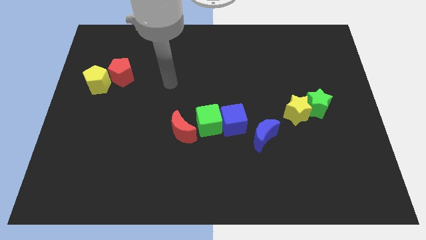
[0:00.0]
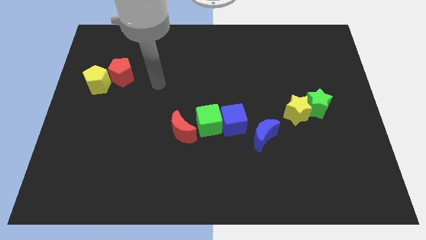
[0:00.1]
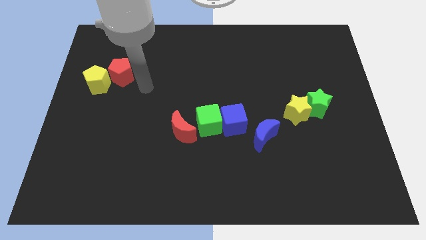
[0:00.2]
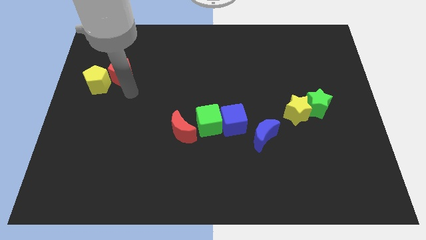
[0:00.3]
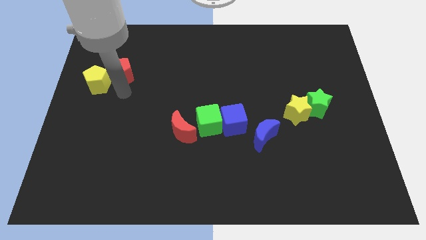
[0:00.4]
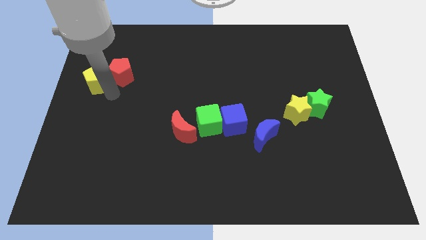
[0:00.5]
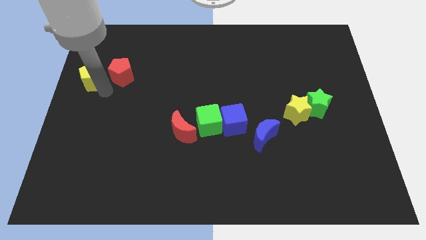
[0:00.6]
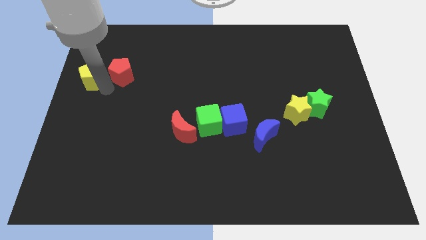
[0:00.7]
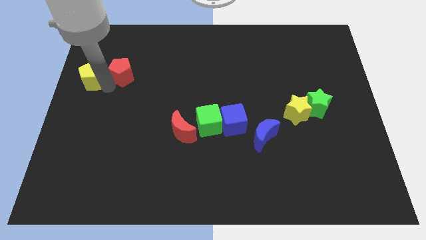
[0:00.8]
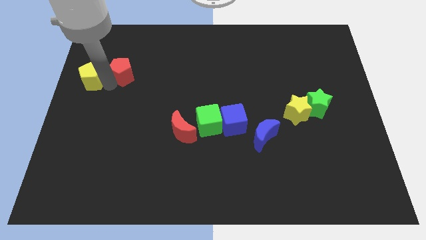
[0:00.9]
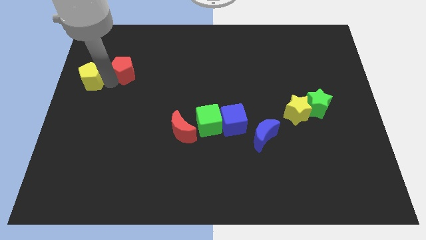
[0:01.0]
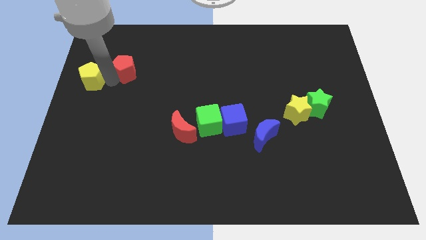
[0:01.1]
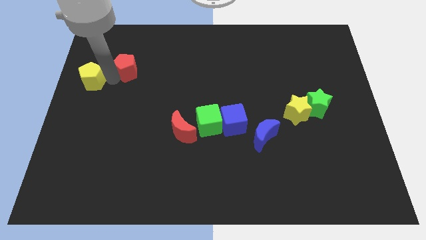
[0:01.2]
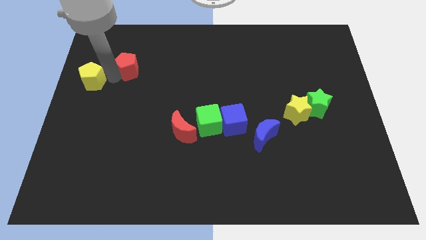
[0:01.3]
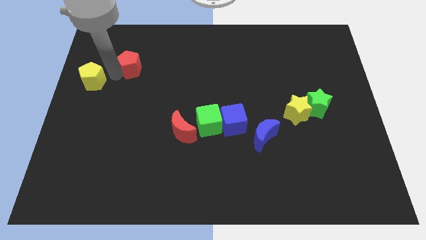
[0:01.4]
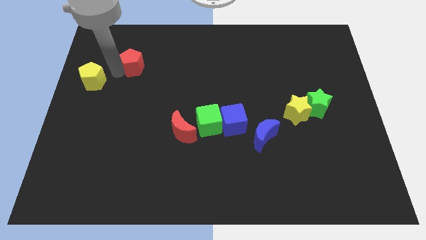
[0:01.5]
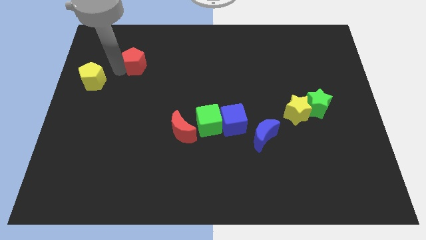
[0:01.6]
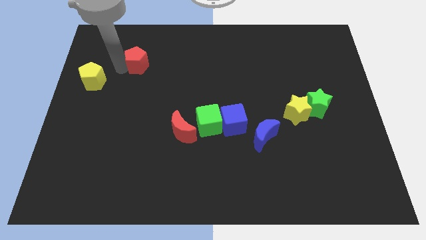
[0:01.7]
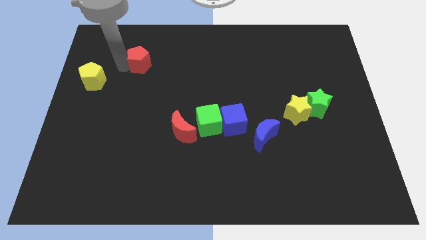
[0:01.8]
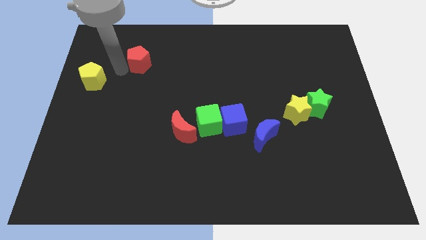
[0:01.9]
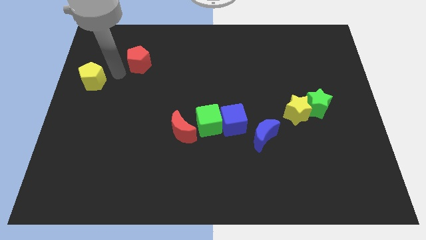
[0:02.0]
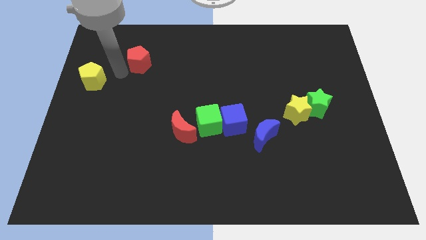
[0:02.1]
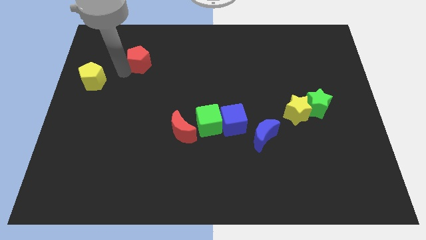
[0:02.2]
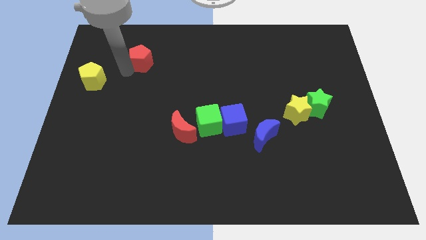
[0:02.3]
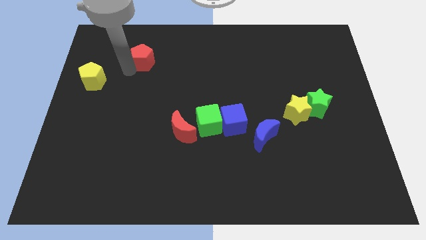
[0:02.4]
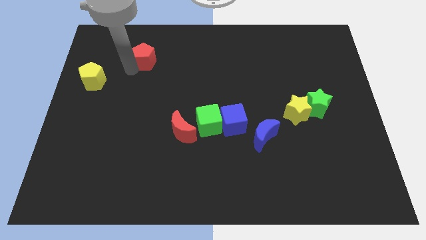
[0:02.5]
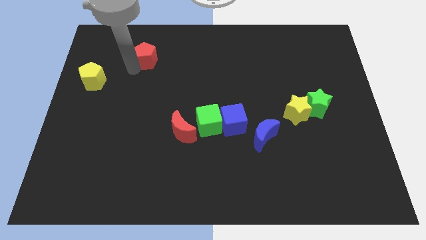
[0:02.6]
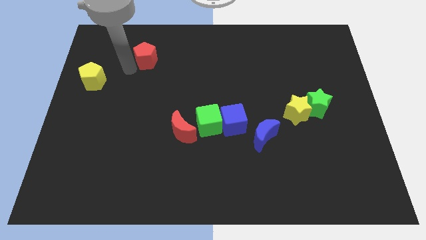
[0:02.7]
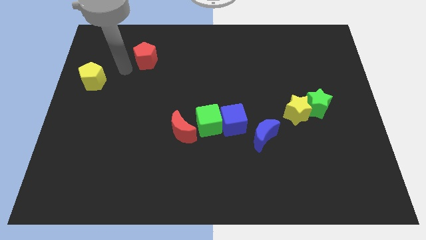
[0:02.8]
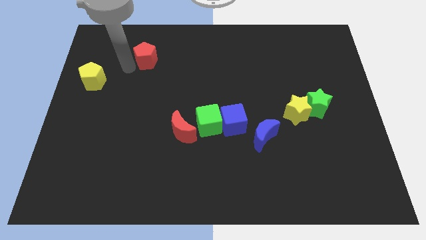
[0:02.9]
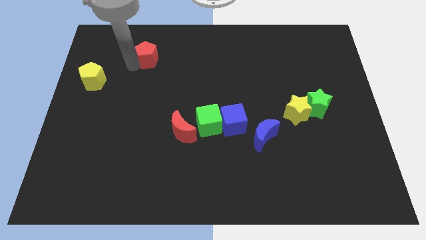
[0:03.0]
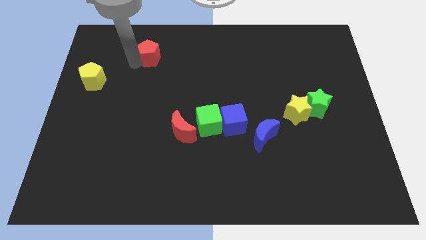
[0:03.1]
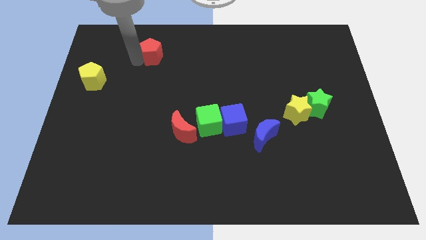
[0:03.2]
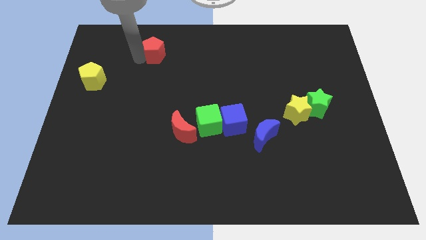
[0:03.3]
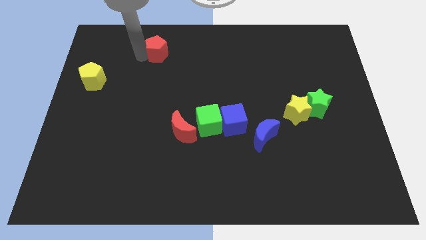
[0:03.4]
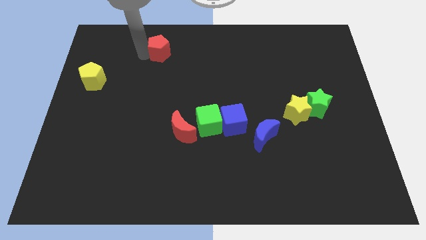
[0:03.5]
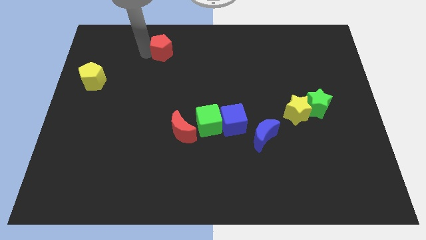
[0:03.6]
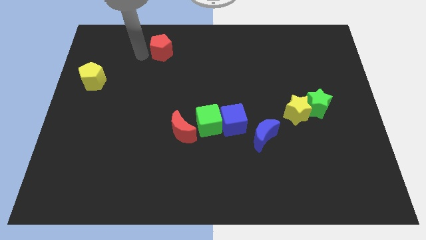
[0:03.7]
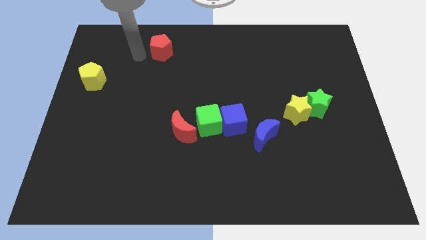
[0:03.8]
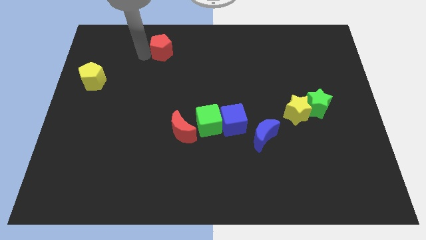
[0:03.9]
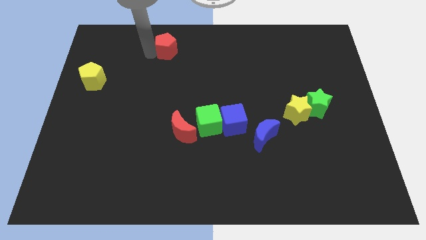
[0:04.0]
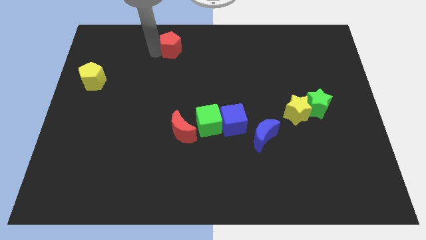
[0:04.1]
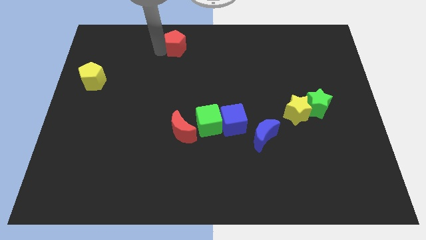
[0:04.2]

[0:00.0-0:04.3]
move the red pentagon to the top

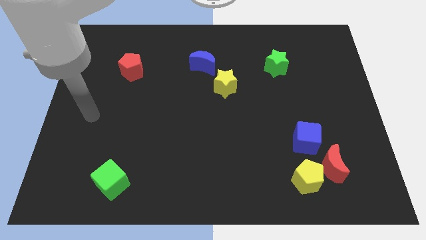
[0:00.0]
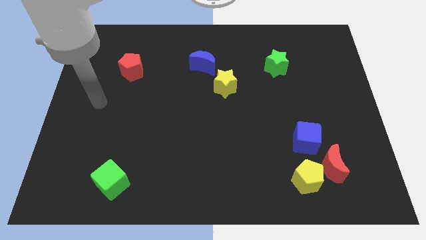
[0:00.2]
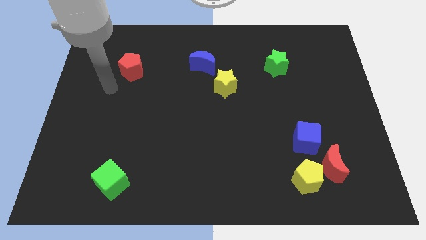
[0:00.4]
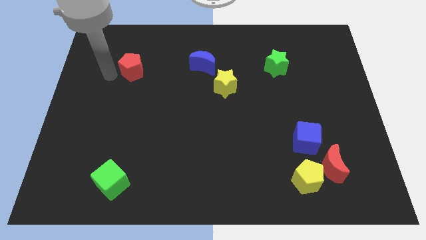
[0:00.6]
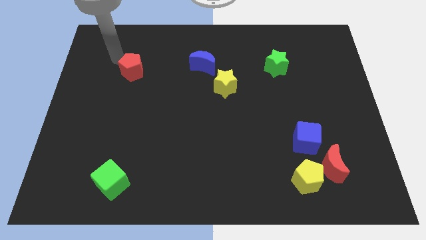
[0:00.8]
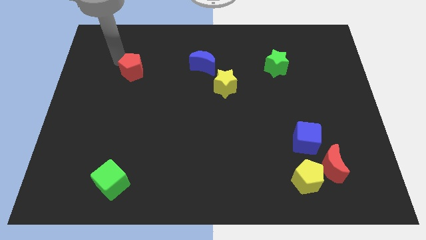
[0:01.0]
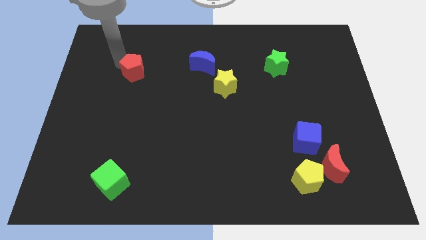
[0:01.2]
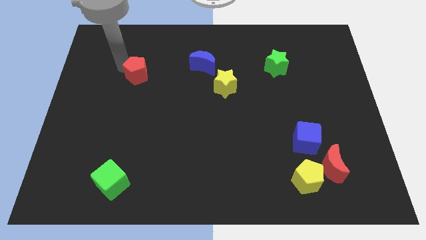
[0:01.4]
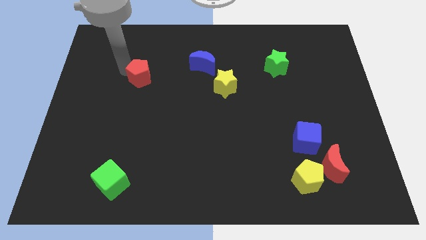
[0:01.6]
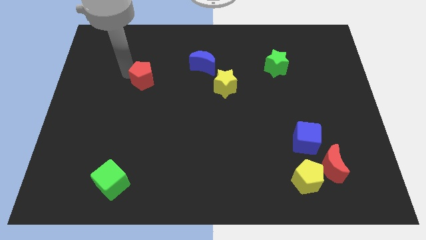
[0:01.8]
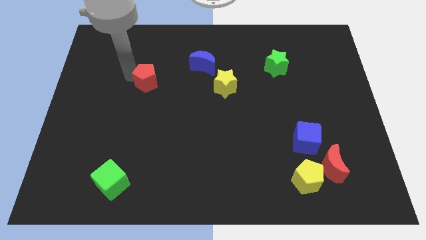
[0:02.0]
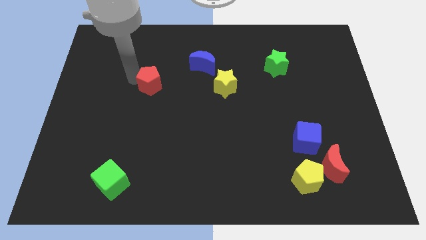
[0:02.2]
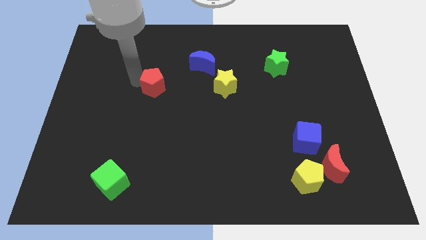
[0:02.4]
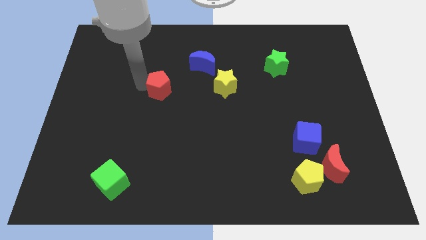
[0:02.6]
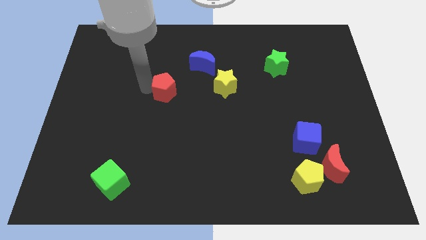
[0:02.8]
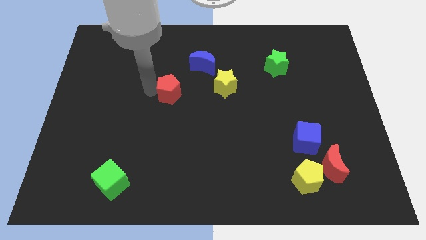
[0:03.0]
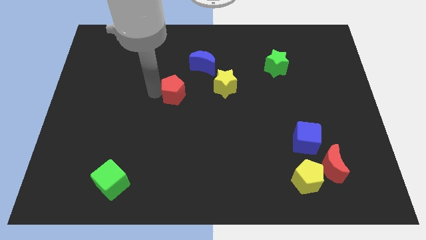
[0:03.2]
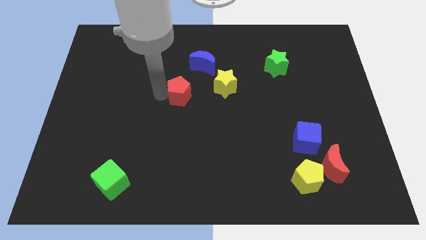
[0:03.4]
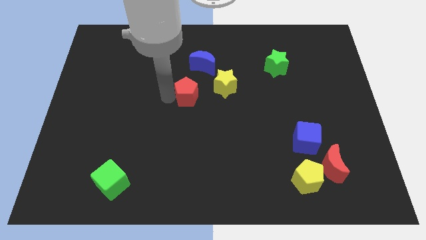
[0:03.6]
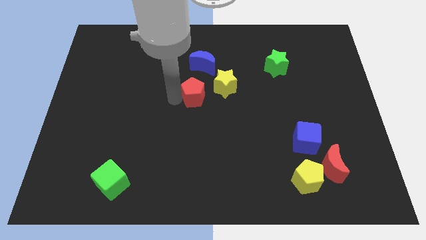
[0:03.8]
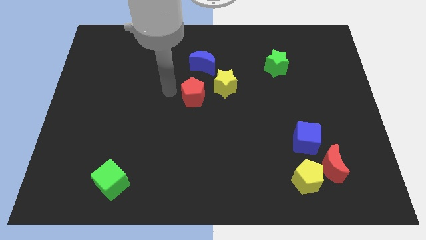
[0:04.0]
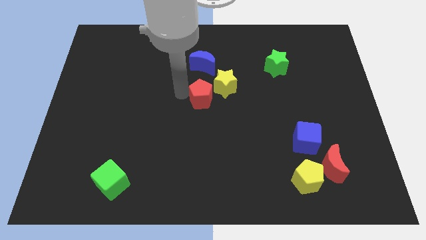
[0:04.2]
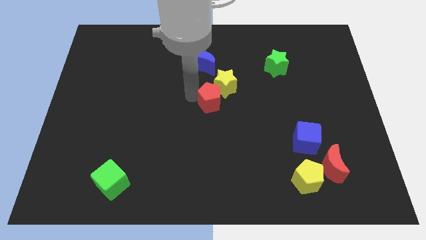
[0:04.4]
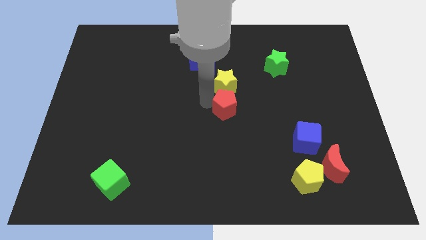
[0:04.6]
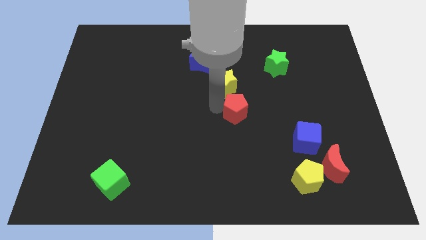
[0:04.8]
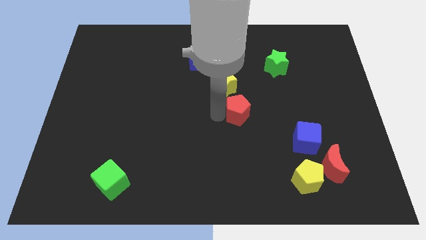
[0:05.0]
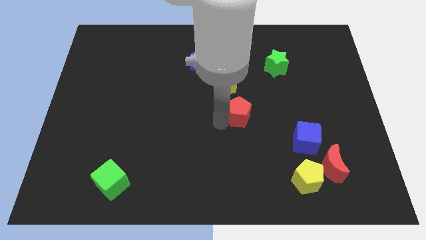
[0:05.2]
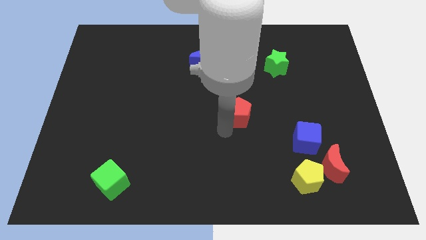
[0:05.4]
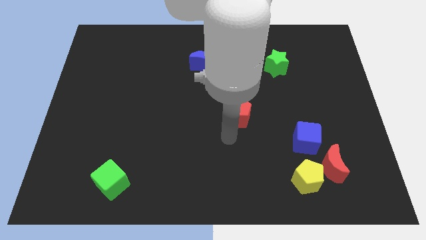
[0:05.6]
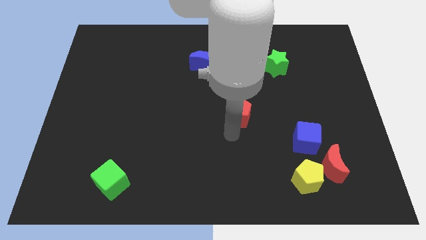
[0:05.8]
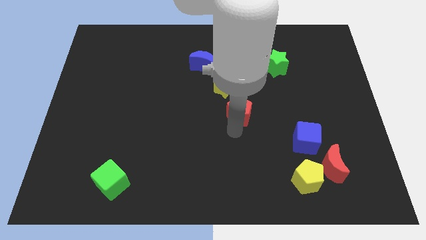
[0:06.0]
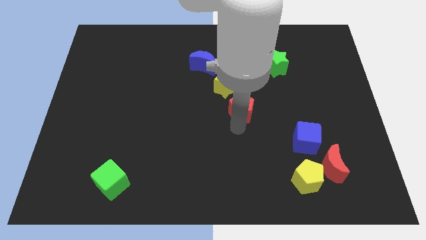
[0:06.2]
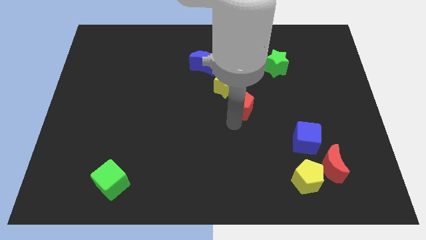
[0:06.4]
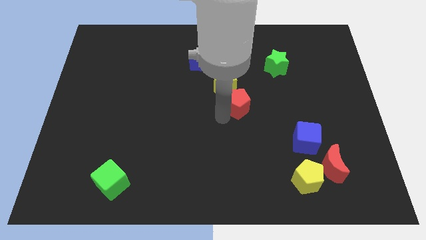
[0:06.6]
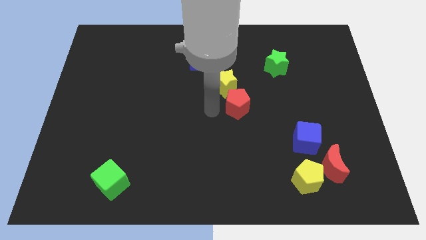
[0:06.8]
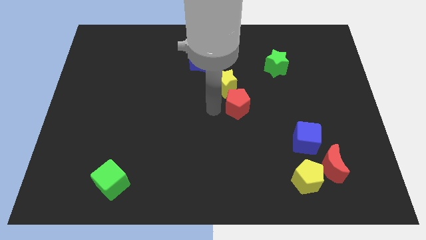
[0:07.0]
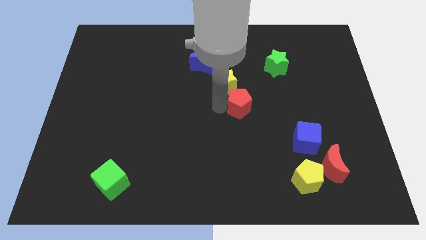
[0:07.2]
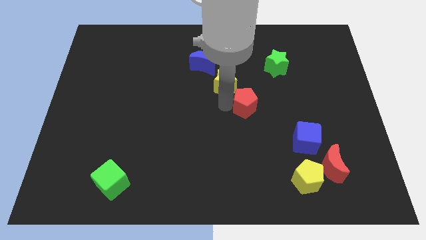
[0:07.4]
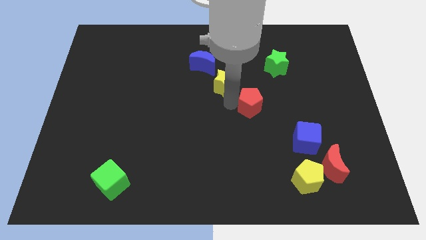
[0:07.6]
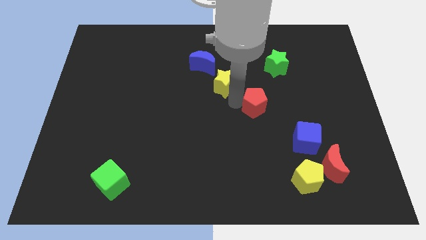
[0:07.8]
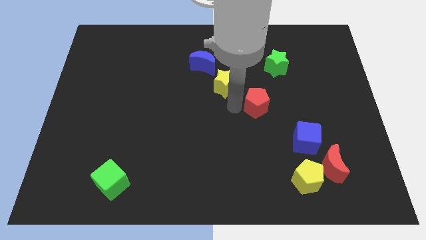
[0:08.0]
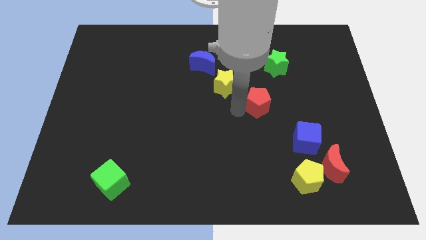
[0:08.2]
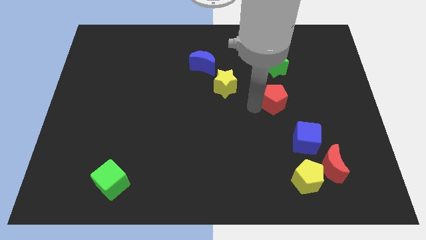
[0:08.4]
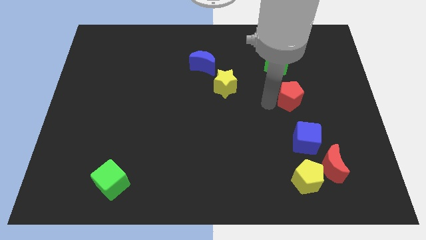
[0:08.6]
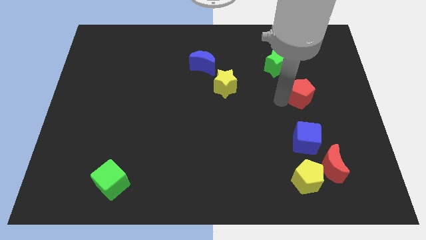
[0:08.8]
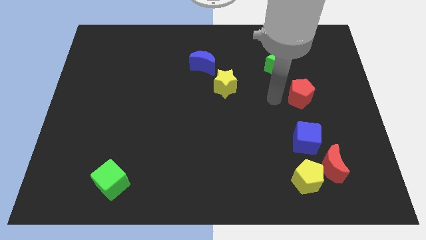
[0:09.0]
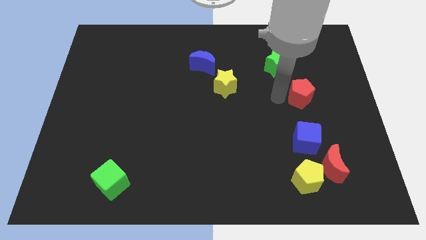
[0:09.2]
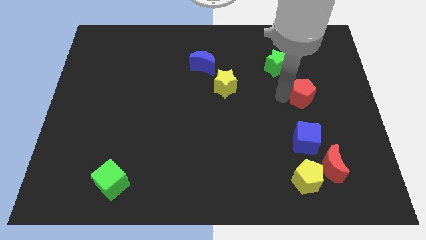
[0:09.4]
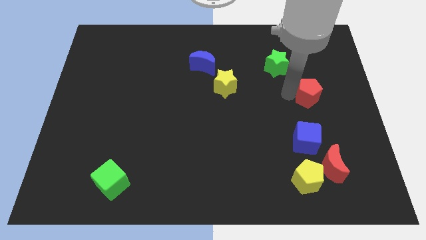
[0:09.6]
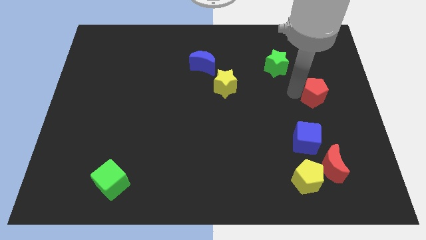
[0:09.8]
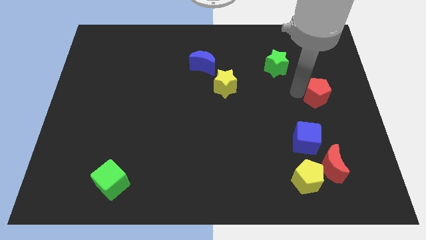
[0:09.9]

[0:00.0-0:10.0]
push the red pentagon to the right side of the board
